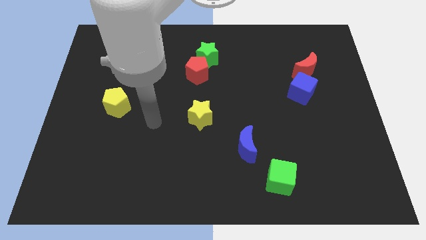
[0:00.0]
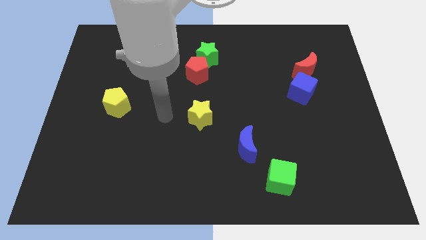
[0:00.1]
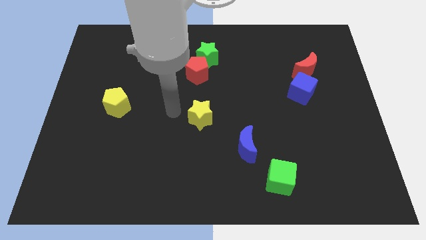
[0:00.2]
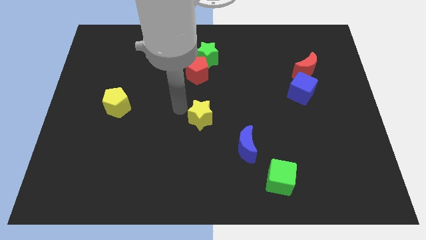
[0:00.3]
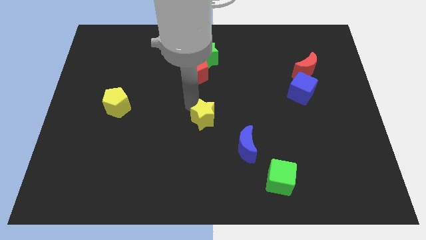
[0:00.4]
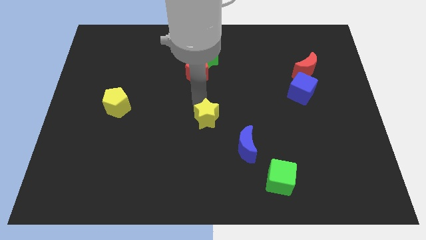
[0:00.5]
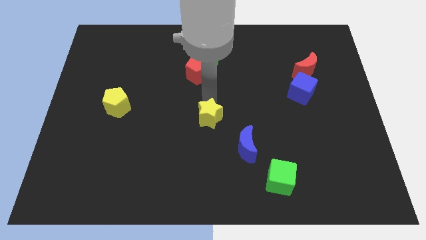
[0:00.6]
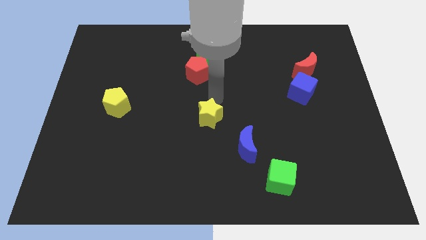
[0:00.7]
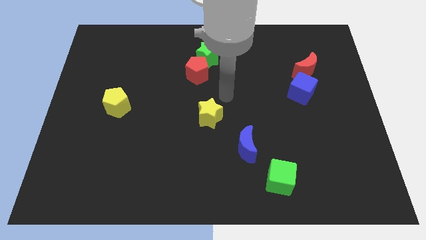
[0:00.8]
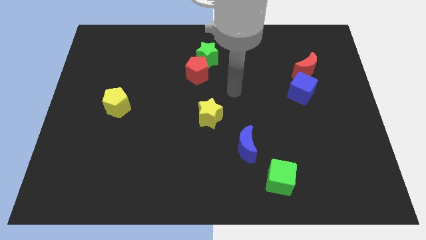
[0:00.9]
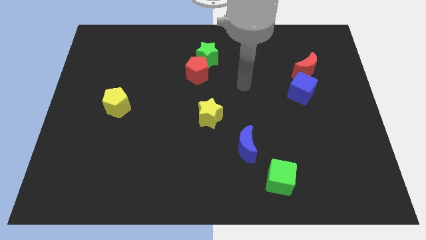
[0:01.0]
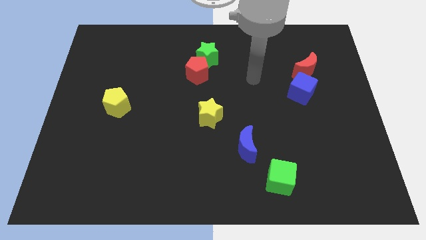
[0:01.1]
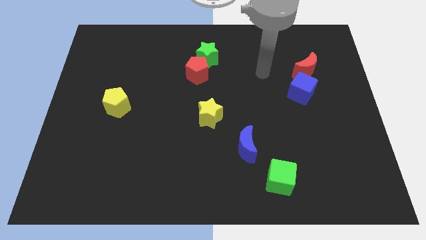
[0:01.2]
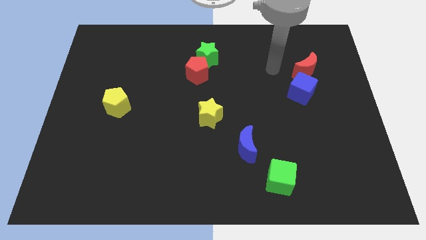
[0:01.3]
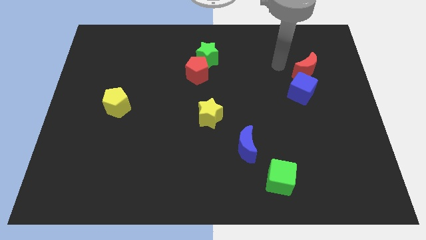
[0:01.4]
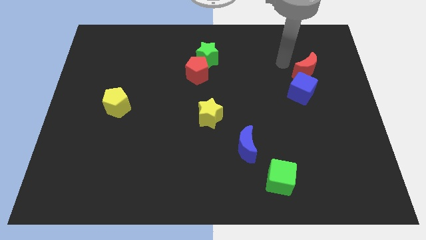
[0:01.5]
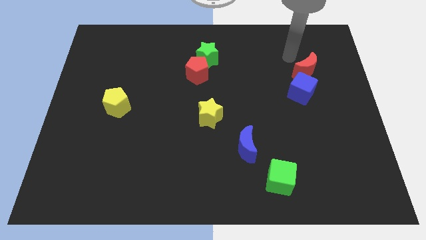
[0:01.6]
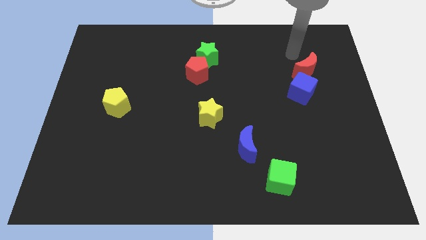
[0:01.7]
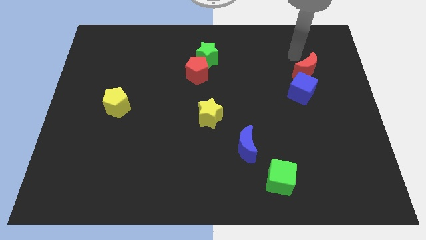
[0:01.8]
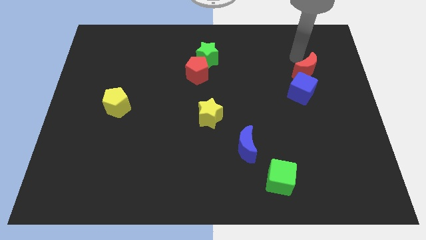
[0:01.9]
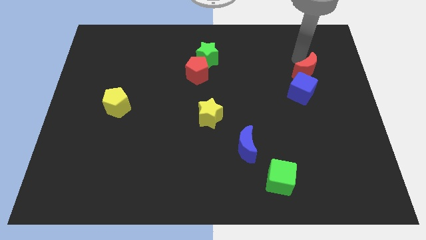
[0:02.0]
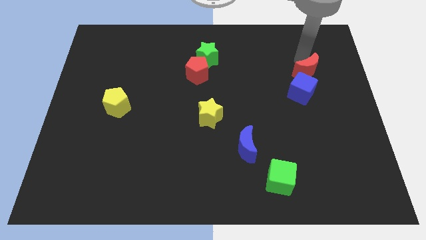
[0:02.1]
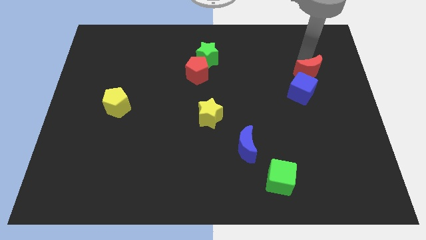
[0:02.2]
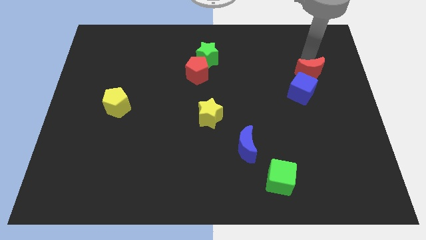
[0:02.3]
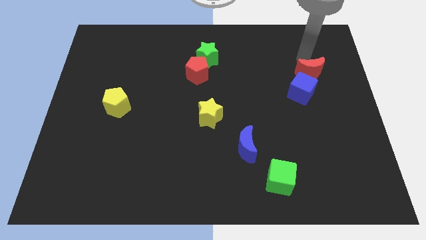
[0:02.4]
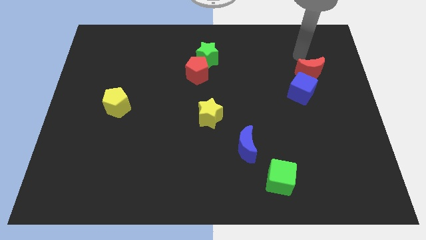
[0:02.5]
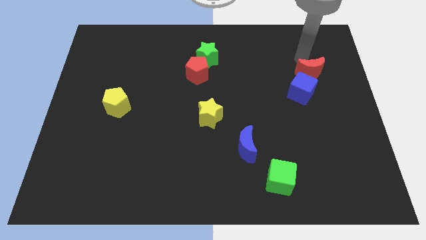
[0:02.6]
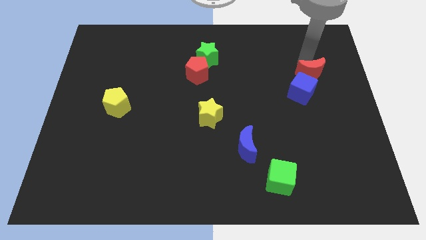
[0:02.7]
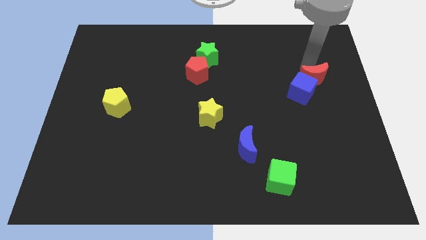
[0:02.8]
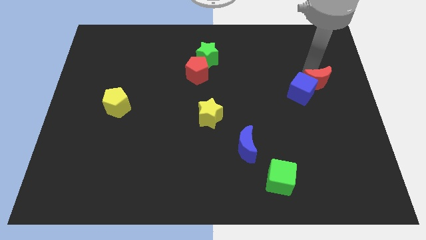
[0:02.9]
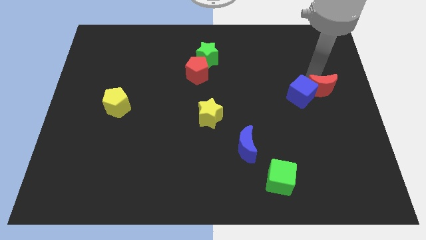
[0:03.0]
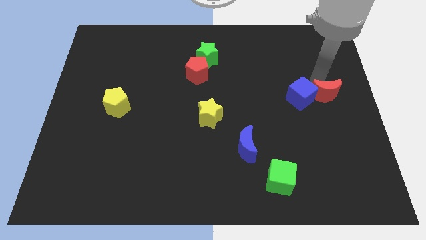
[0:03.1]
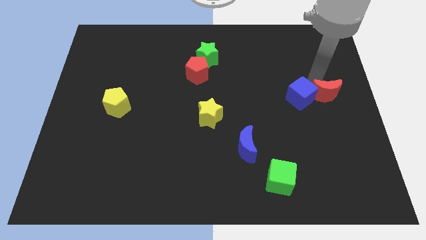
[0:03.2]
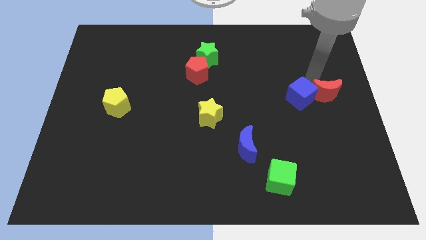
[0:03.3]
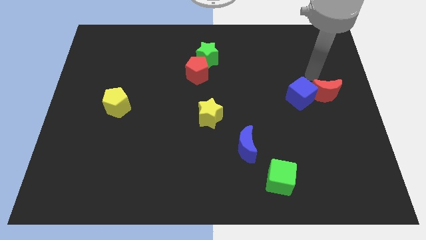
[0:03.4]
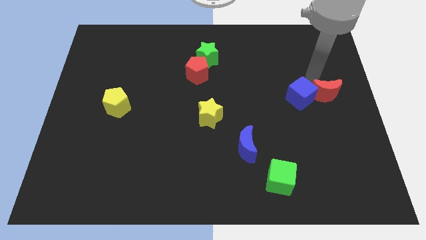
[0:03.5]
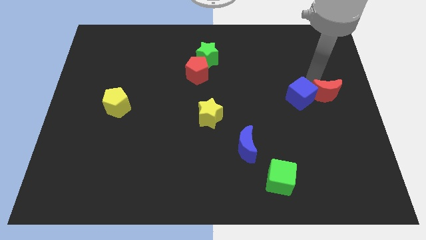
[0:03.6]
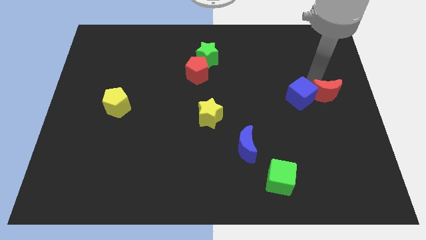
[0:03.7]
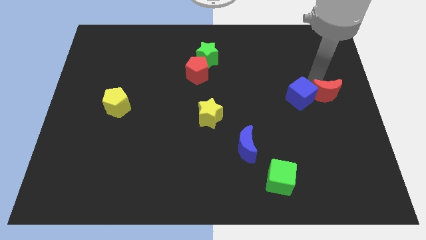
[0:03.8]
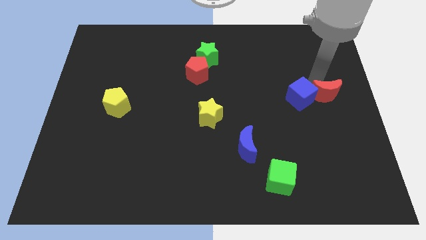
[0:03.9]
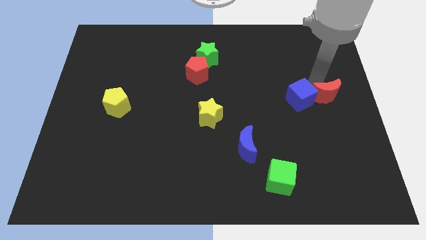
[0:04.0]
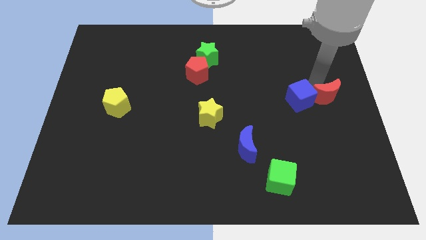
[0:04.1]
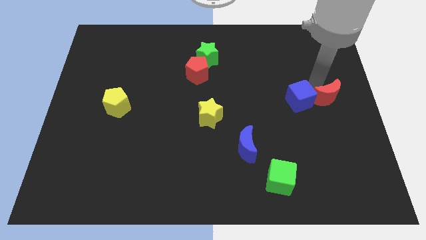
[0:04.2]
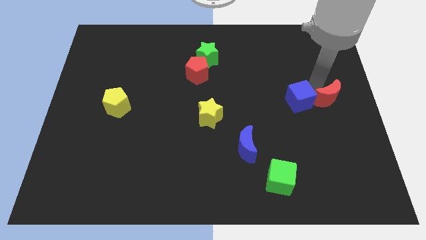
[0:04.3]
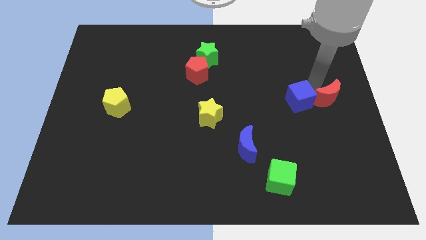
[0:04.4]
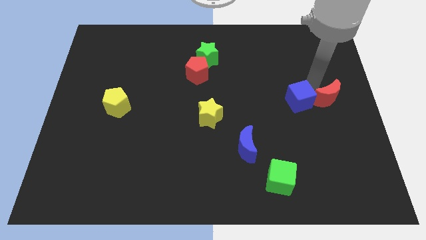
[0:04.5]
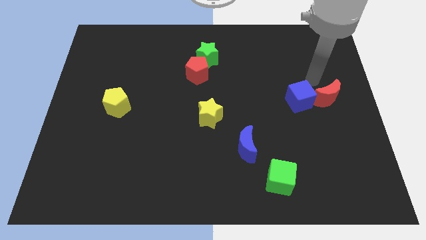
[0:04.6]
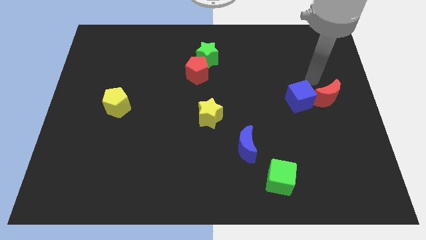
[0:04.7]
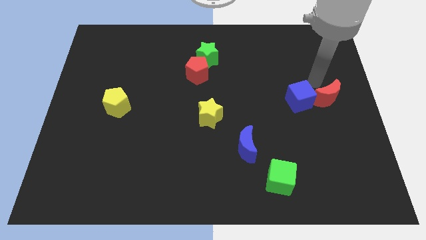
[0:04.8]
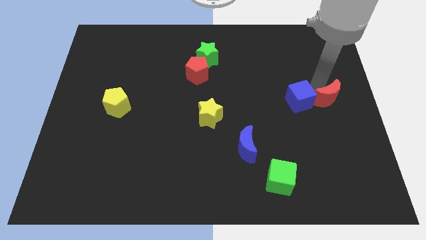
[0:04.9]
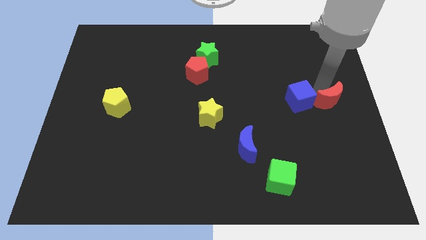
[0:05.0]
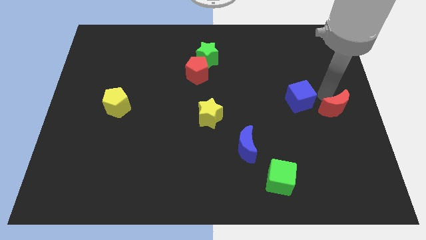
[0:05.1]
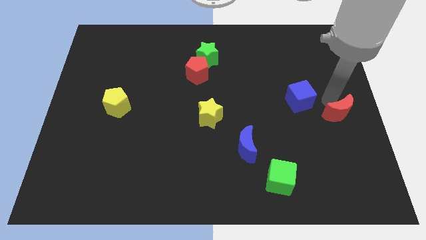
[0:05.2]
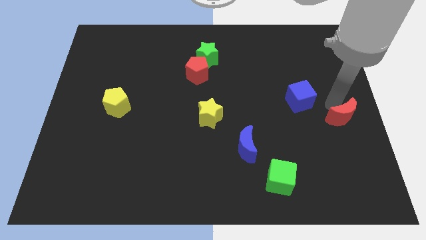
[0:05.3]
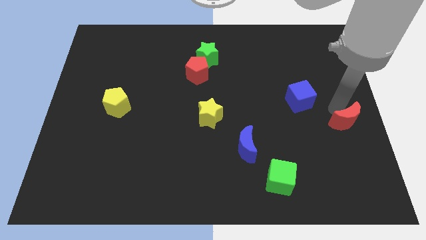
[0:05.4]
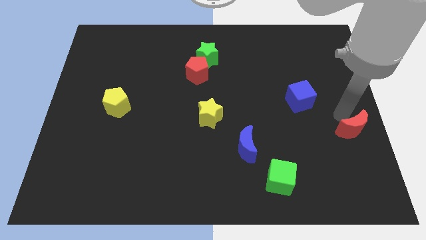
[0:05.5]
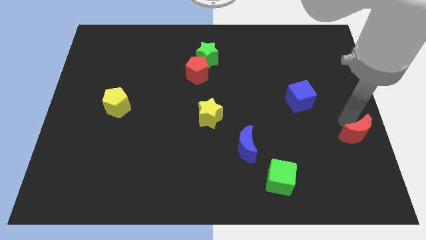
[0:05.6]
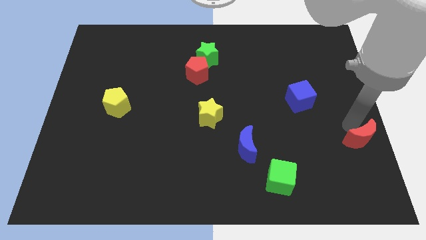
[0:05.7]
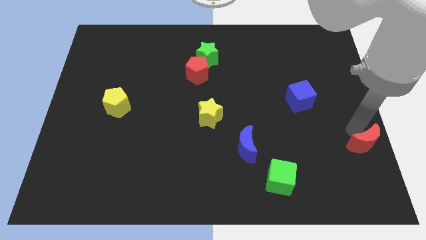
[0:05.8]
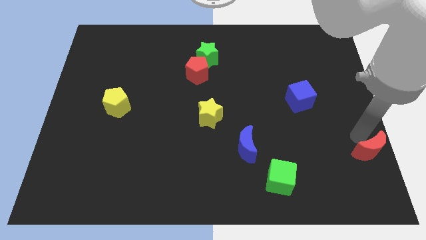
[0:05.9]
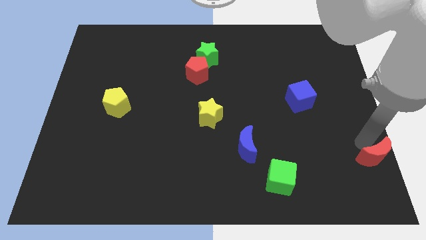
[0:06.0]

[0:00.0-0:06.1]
slide the red moon to the bottom right of the board

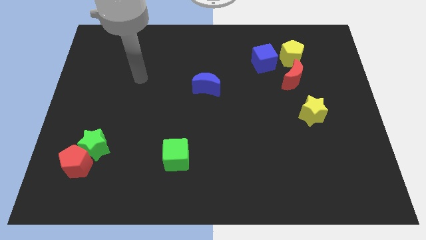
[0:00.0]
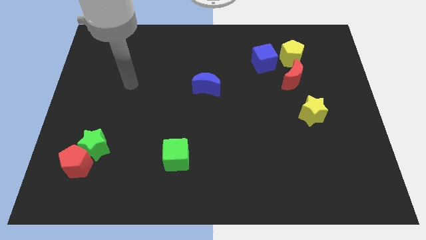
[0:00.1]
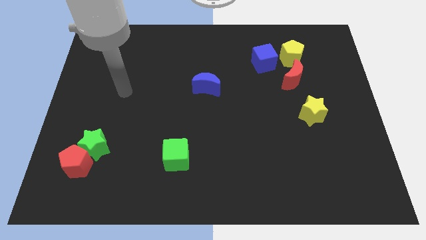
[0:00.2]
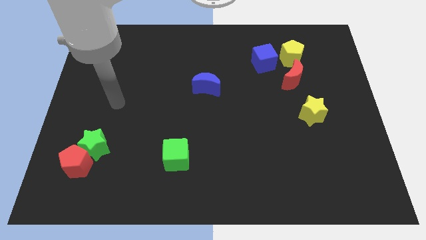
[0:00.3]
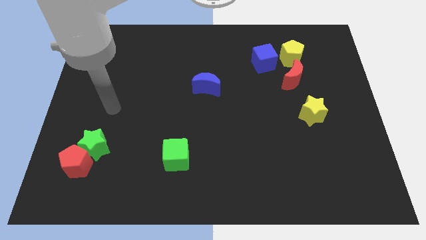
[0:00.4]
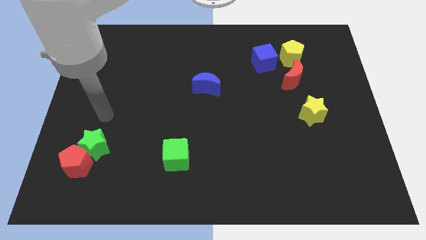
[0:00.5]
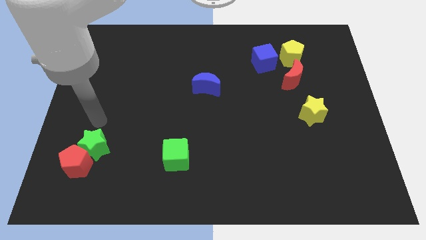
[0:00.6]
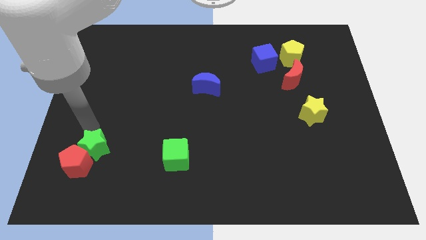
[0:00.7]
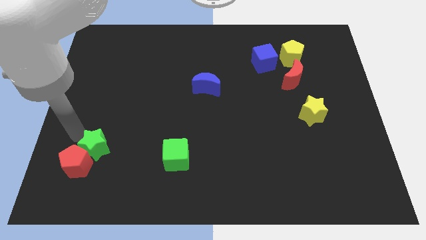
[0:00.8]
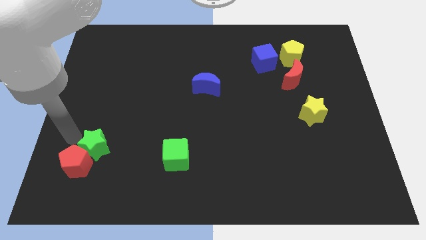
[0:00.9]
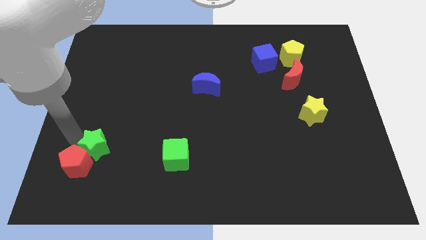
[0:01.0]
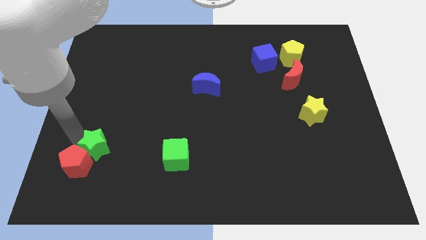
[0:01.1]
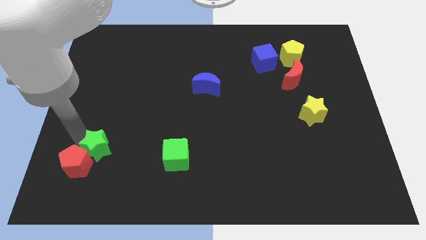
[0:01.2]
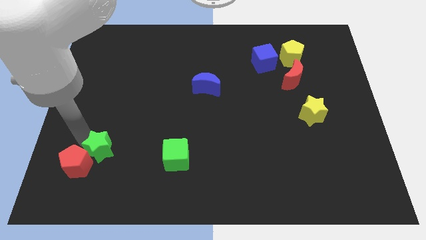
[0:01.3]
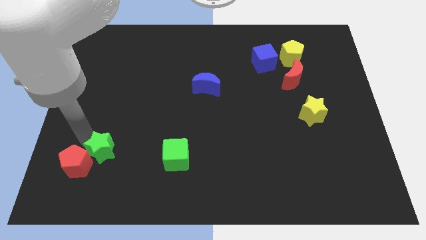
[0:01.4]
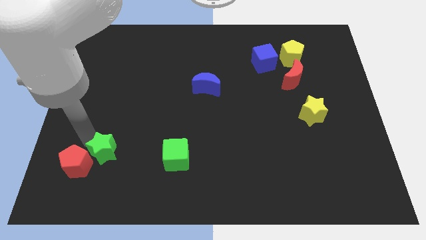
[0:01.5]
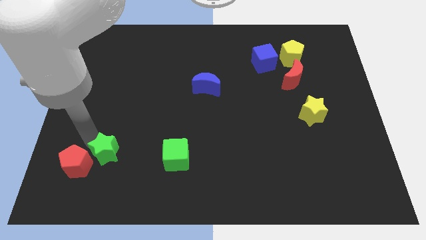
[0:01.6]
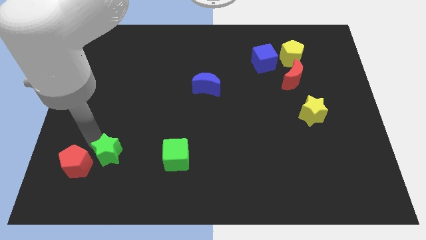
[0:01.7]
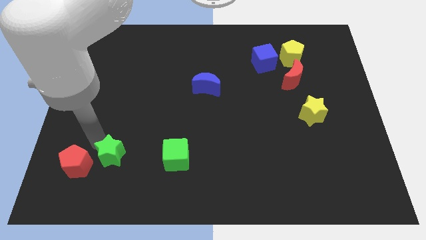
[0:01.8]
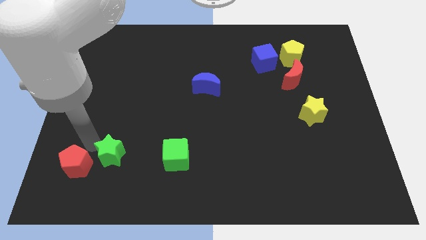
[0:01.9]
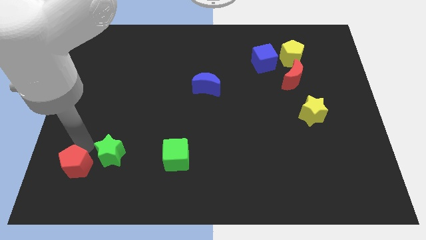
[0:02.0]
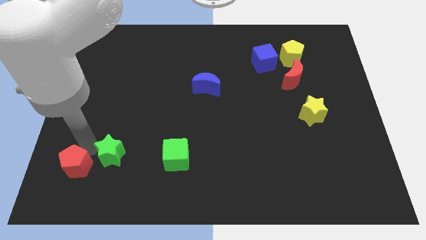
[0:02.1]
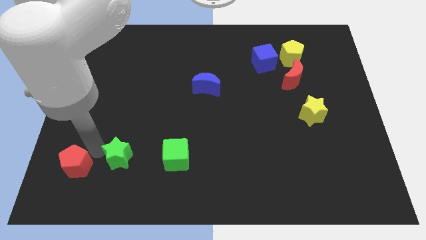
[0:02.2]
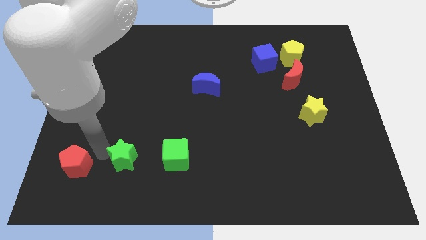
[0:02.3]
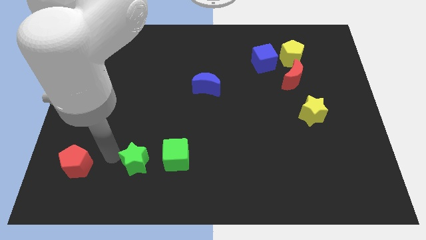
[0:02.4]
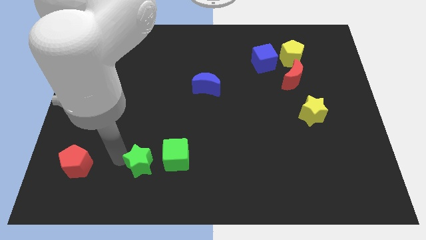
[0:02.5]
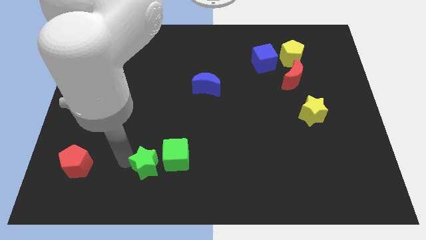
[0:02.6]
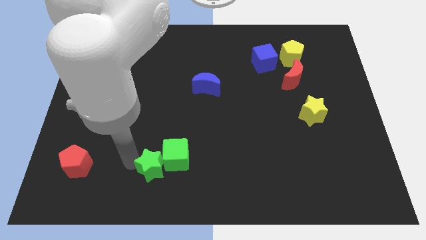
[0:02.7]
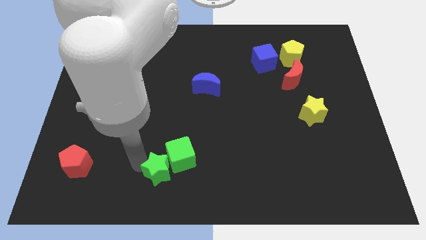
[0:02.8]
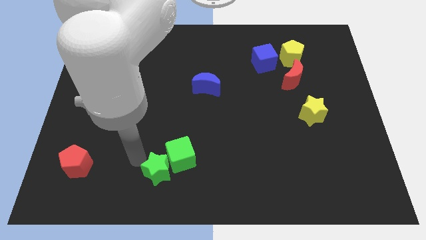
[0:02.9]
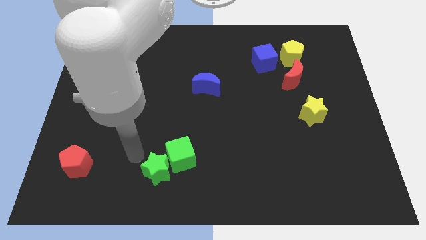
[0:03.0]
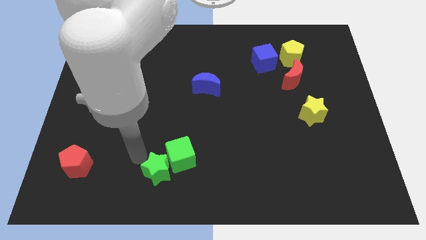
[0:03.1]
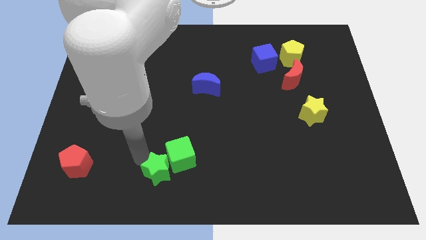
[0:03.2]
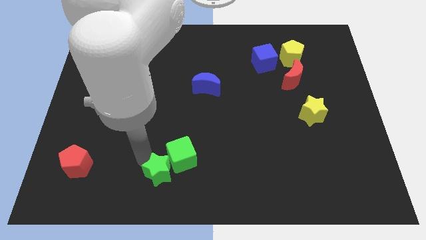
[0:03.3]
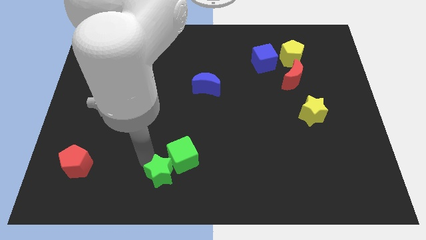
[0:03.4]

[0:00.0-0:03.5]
put the green star to the bottom side
